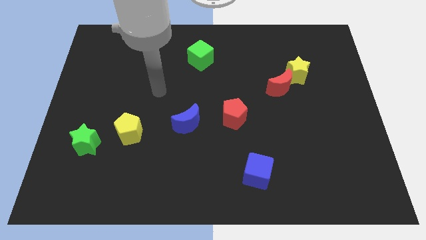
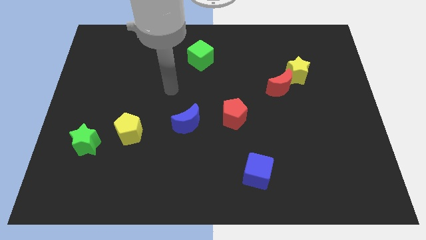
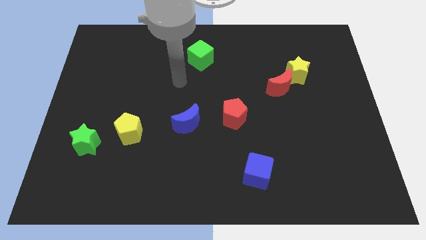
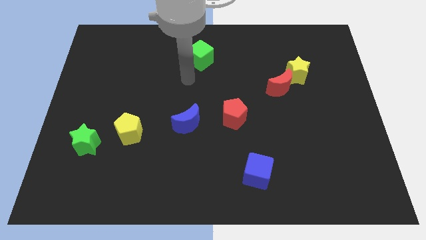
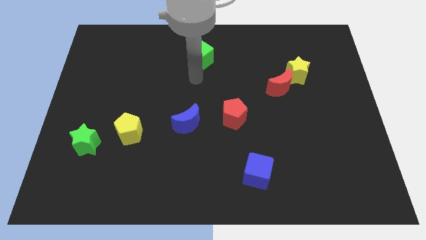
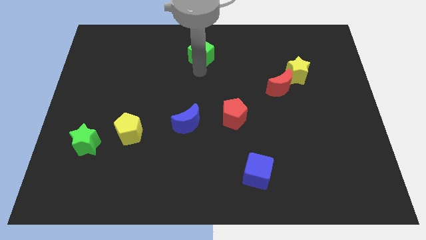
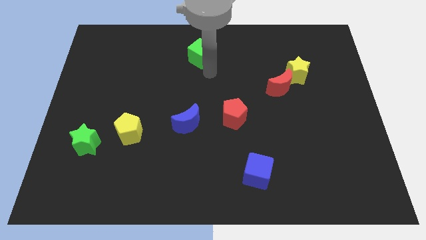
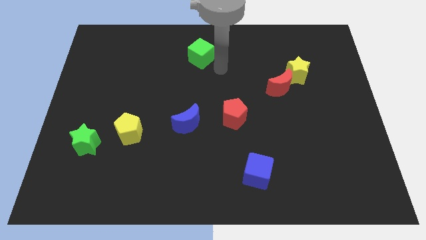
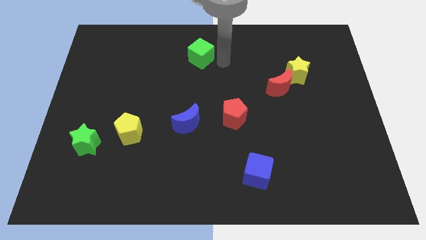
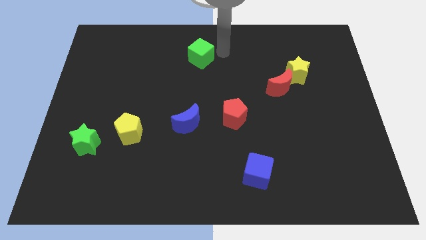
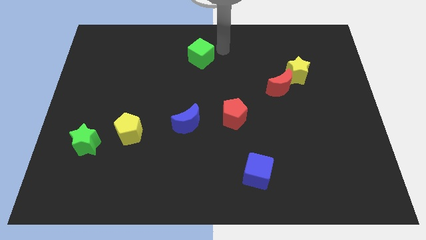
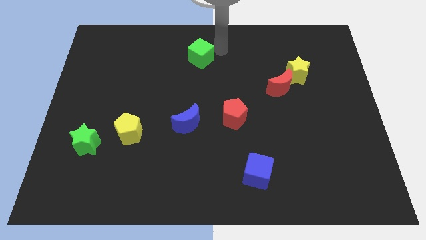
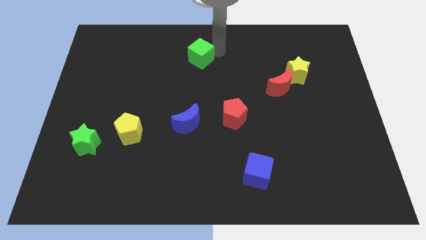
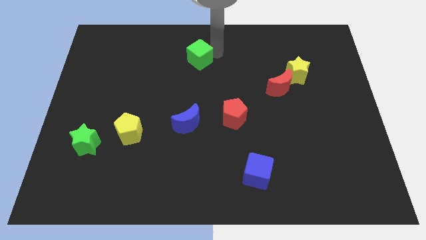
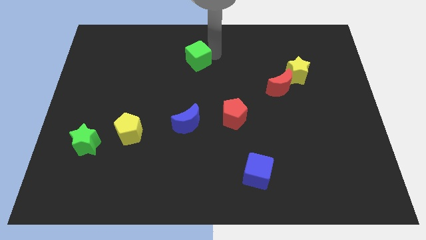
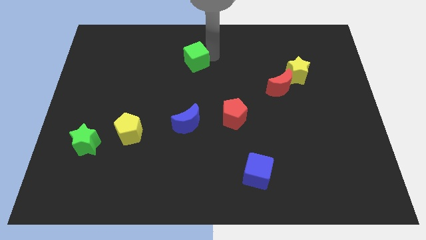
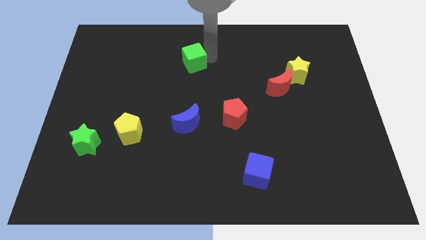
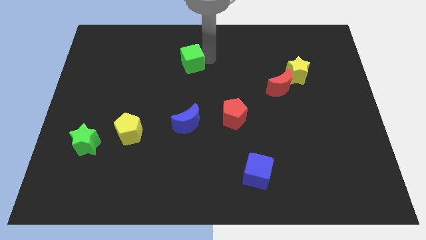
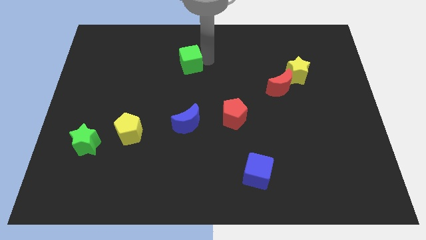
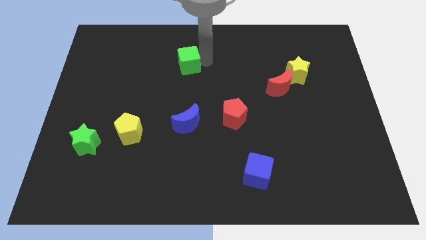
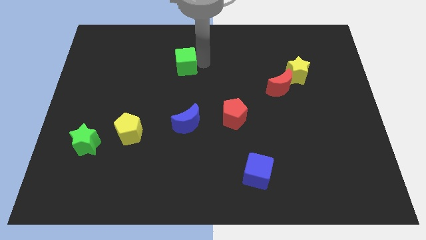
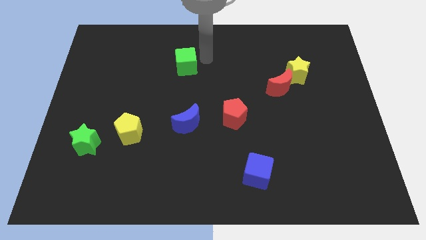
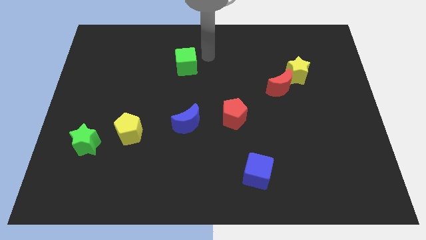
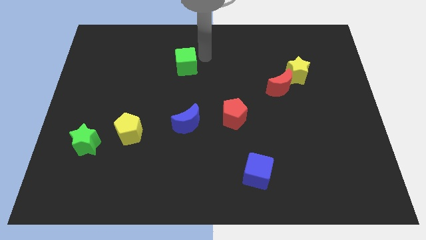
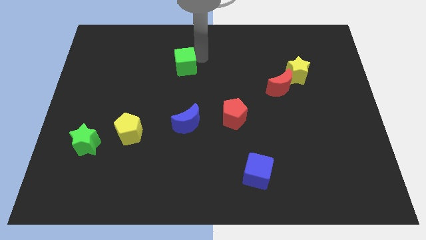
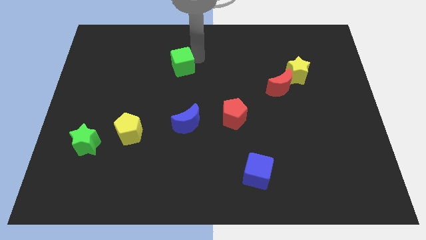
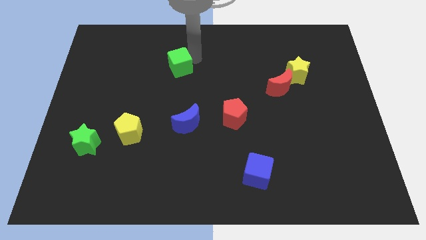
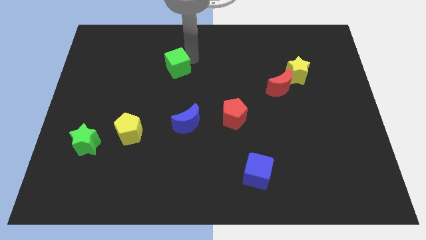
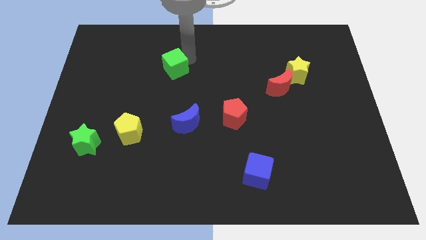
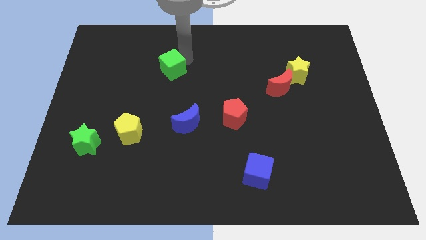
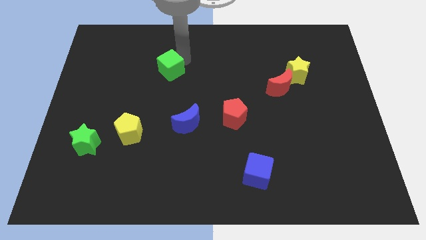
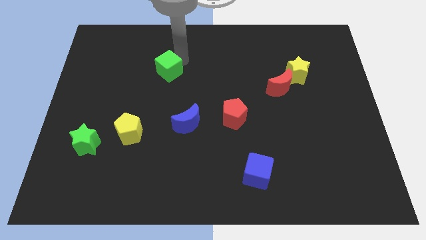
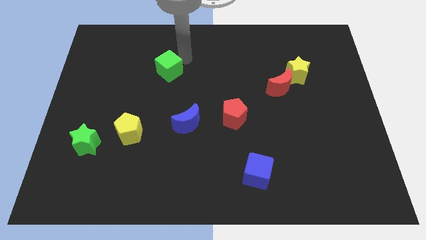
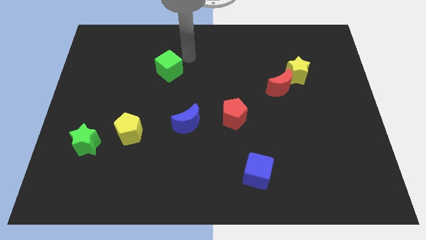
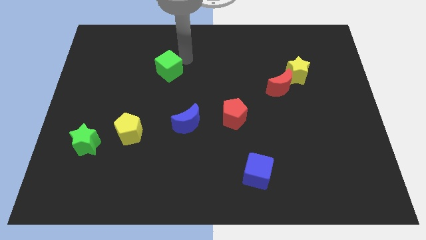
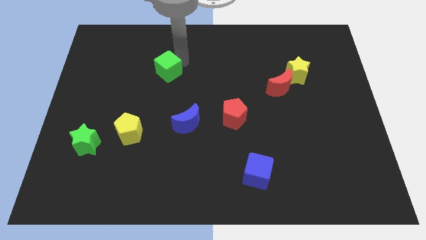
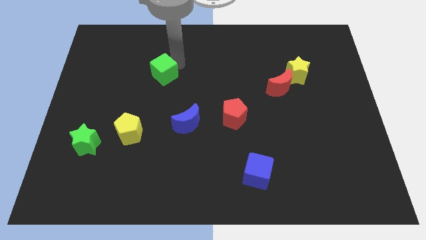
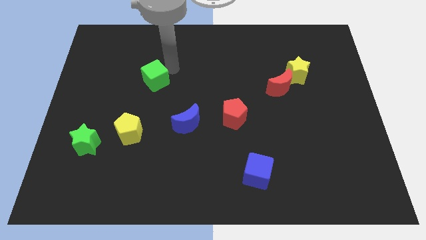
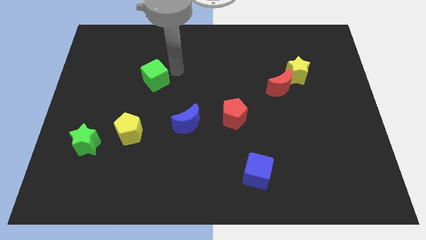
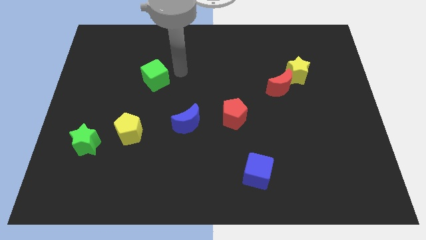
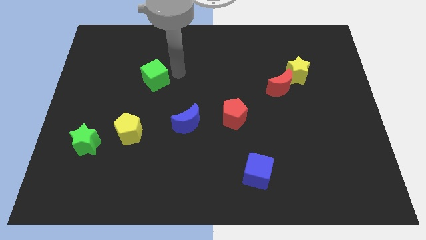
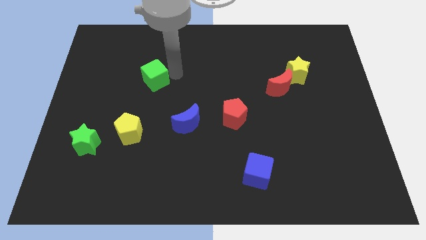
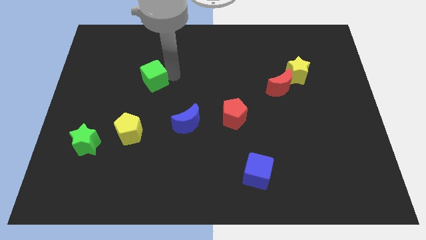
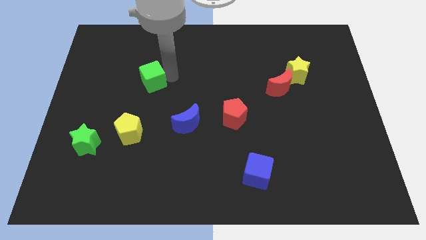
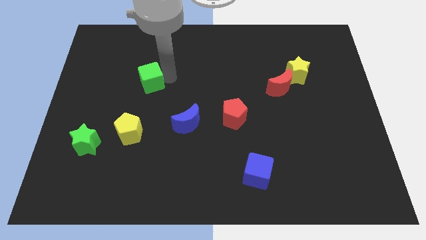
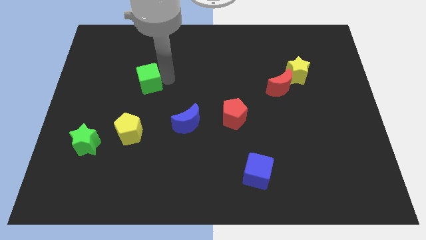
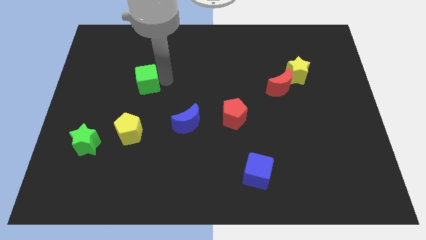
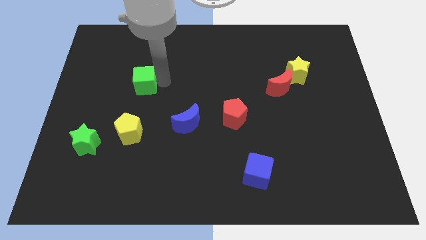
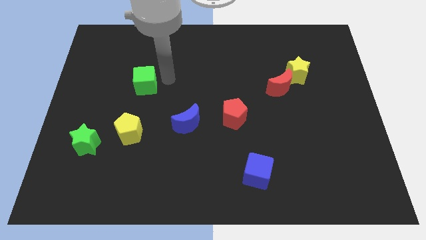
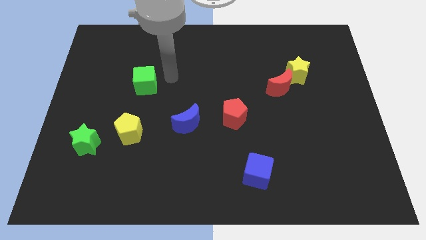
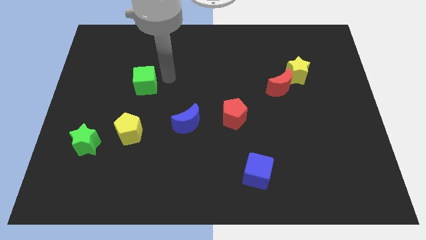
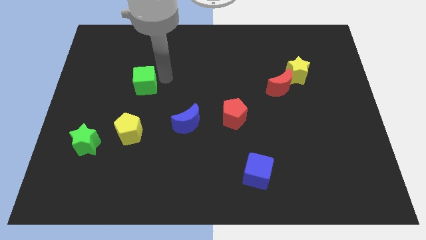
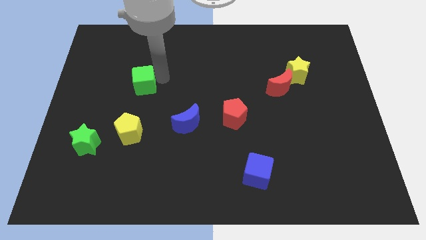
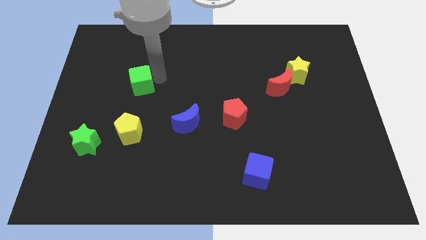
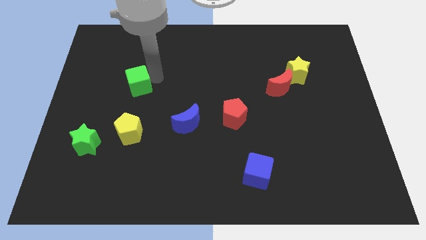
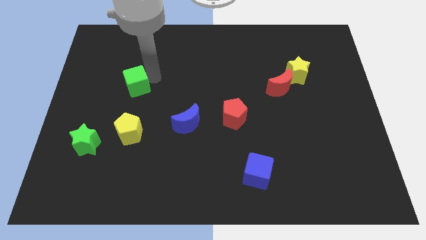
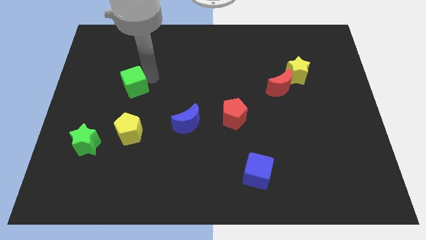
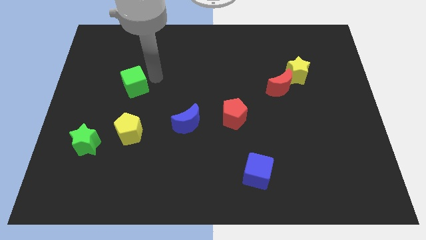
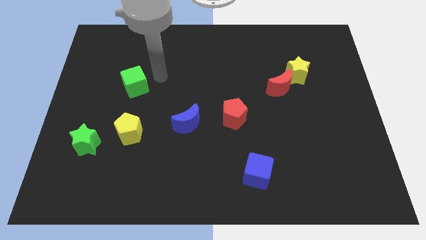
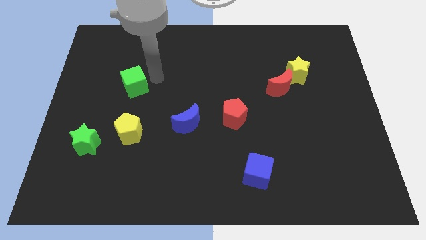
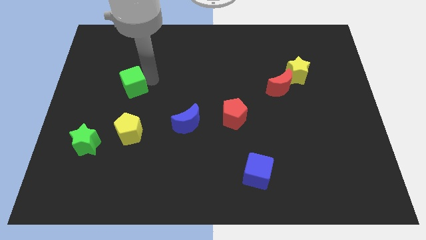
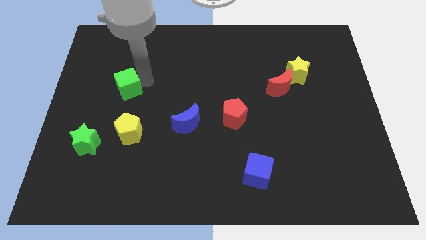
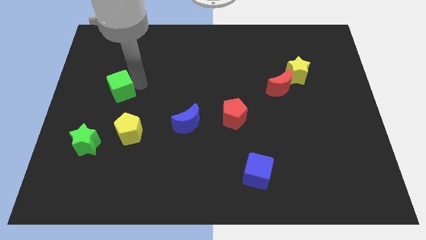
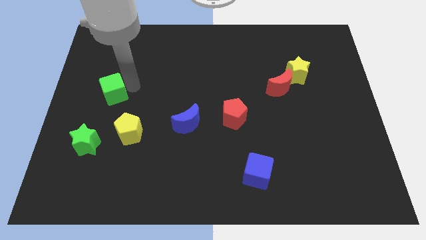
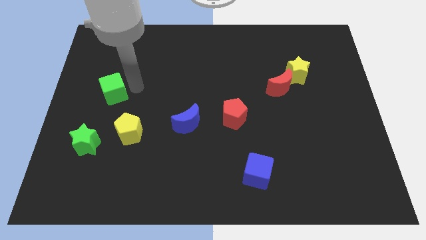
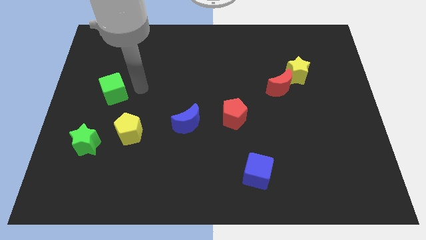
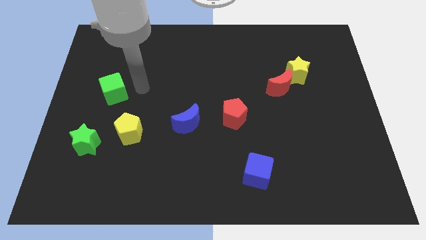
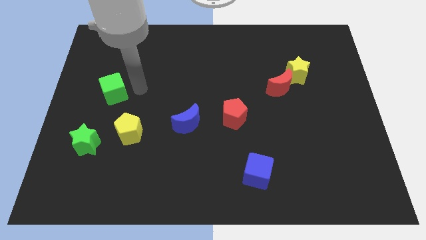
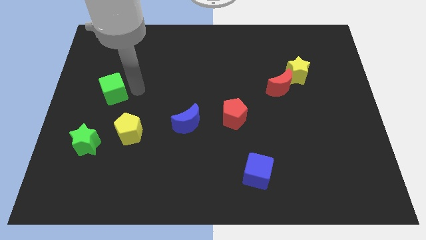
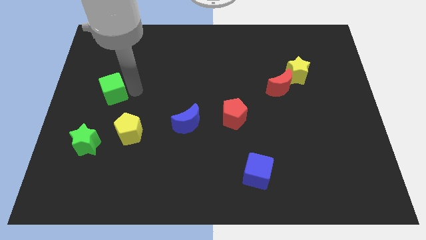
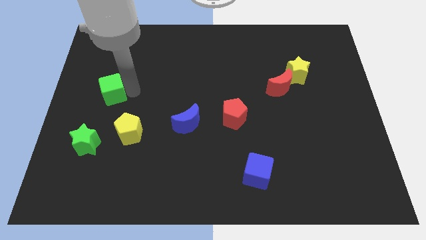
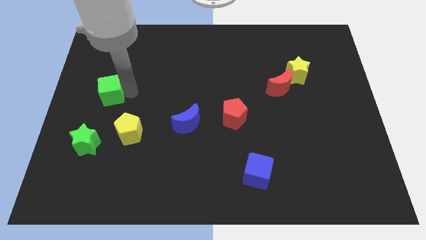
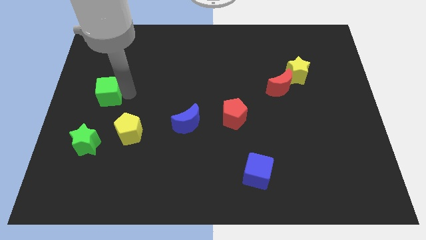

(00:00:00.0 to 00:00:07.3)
slide the green cube to the left side of the board
